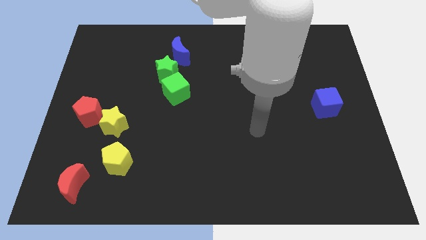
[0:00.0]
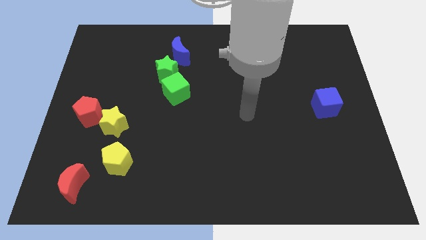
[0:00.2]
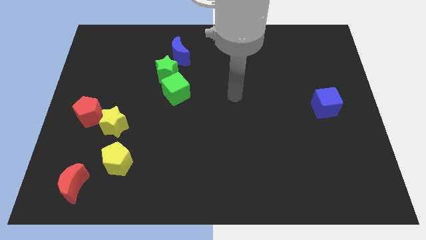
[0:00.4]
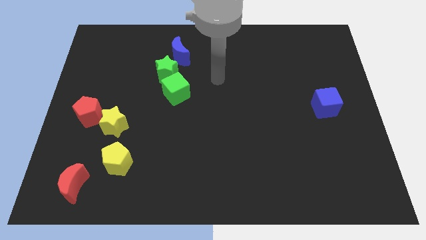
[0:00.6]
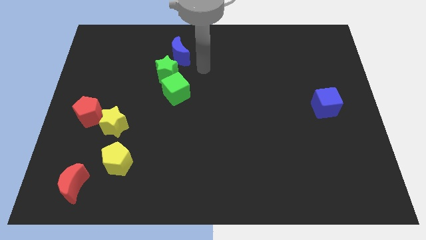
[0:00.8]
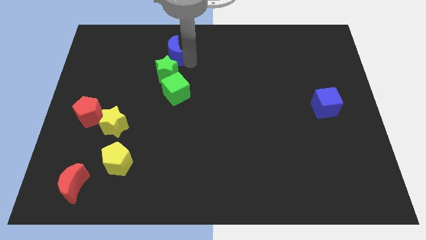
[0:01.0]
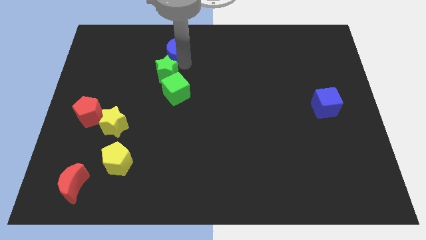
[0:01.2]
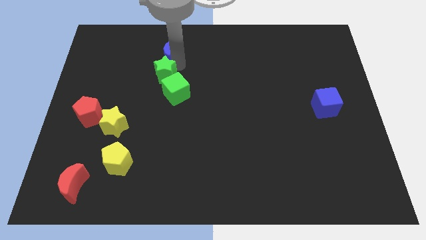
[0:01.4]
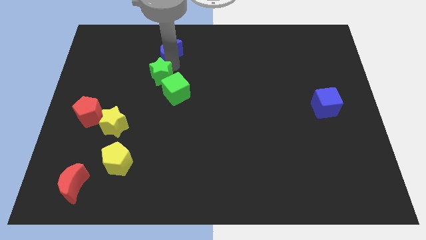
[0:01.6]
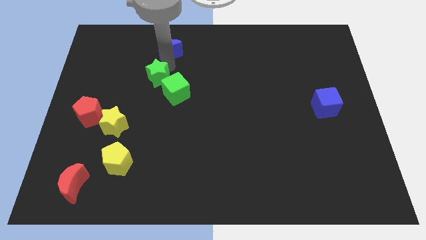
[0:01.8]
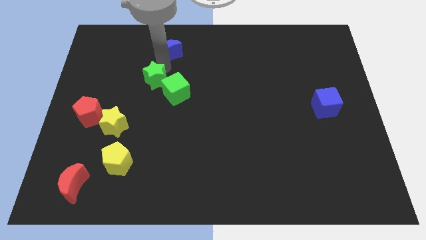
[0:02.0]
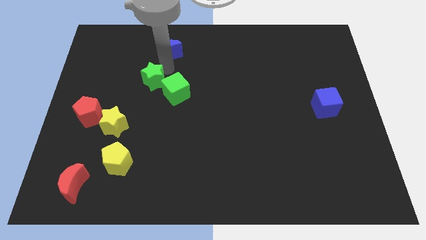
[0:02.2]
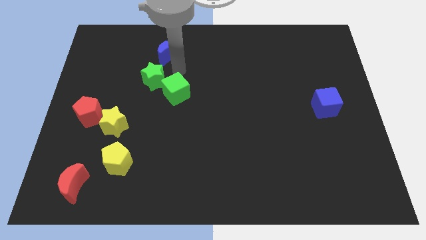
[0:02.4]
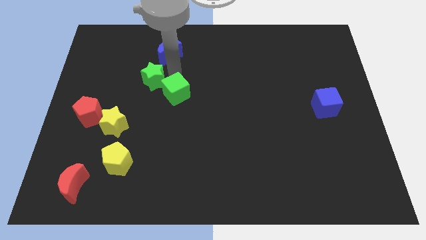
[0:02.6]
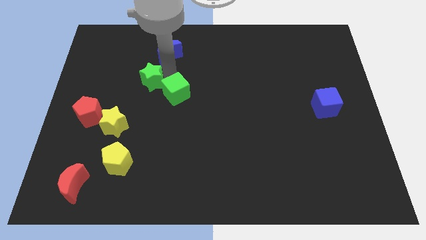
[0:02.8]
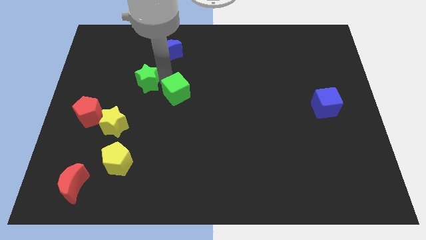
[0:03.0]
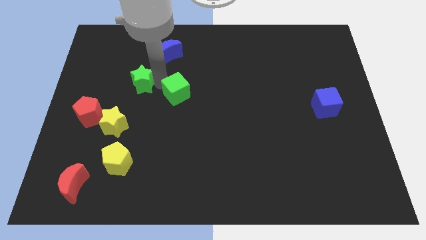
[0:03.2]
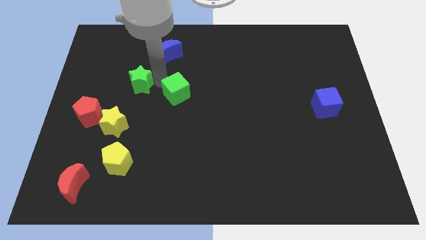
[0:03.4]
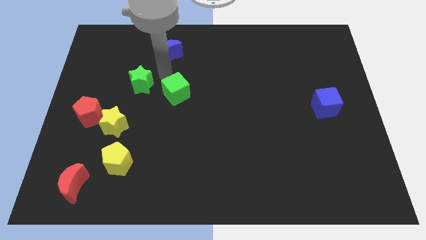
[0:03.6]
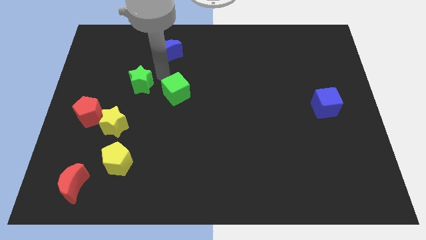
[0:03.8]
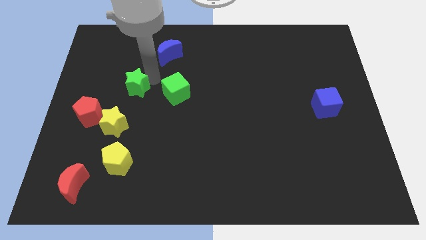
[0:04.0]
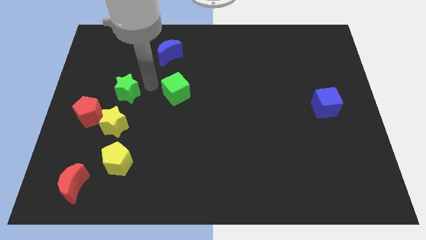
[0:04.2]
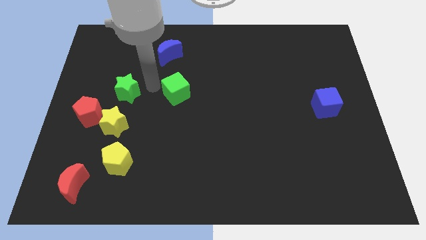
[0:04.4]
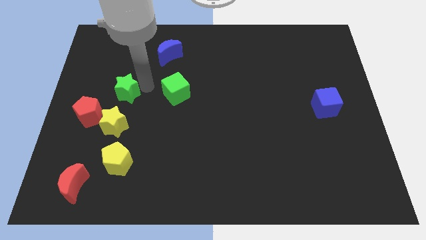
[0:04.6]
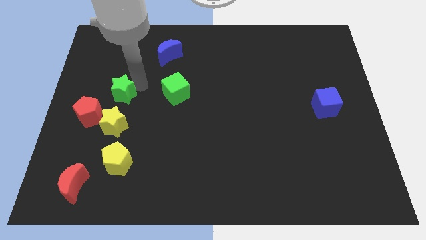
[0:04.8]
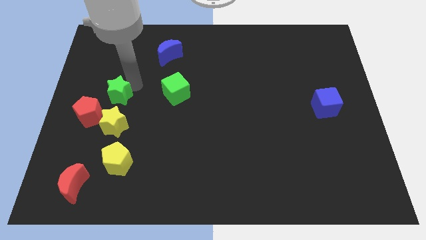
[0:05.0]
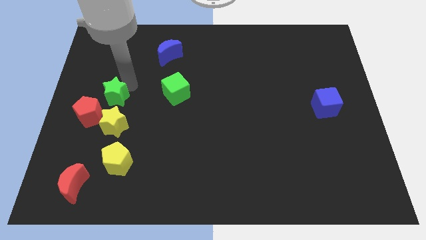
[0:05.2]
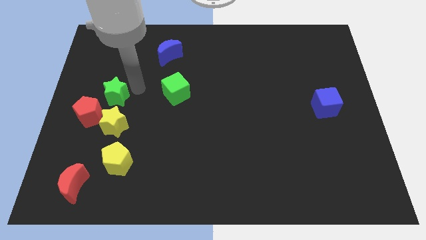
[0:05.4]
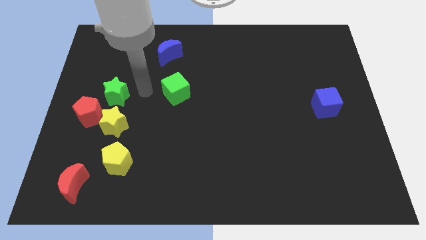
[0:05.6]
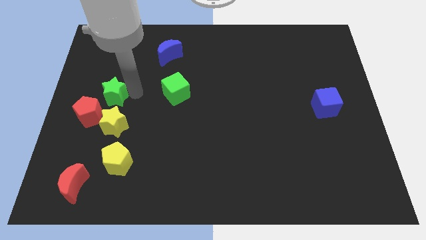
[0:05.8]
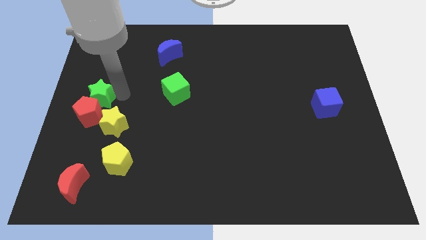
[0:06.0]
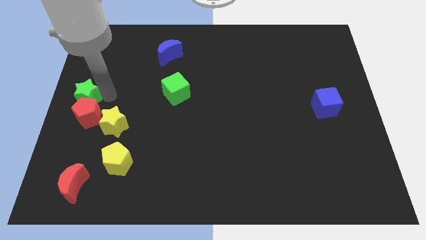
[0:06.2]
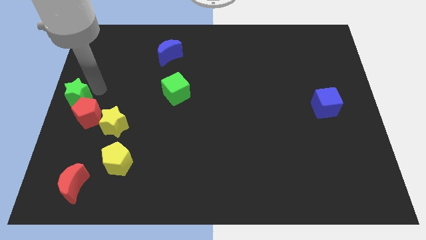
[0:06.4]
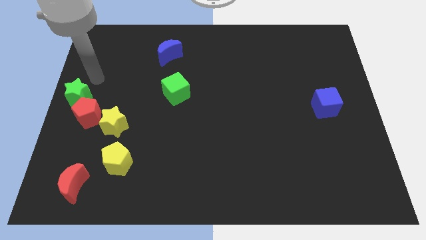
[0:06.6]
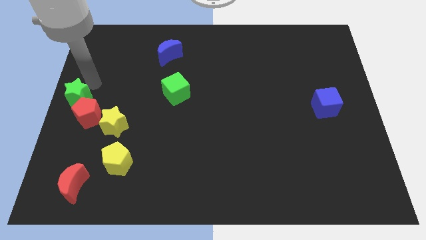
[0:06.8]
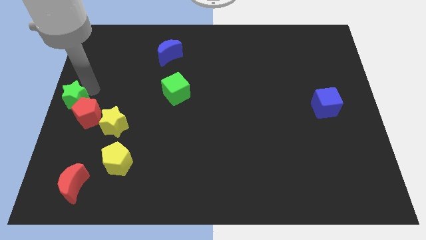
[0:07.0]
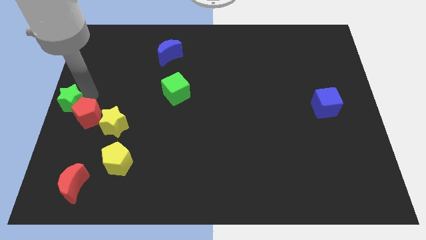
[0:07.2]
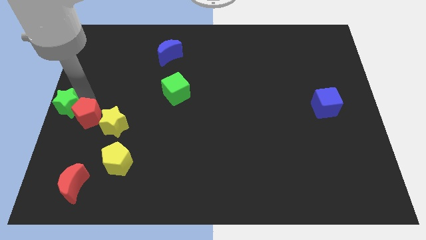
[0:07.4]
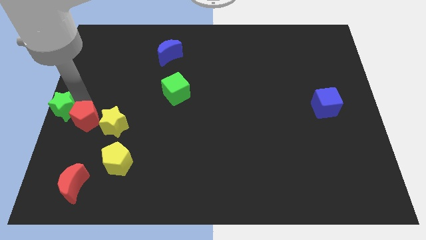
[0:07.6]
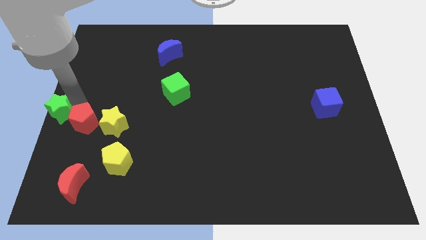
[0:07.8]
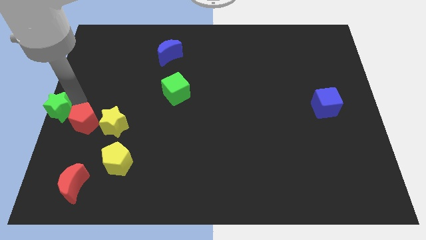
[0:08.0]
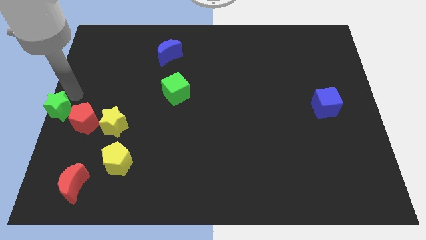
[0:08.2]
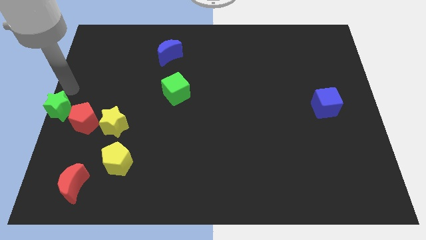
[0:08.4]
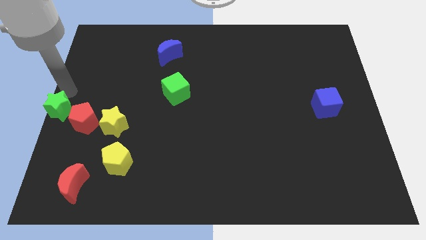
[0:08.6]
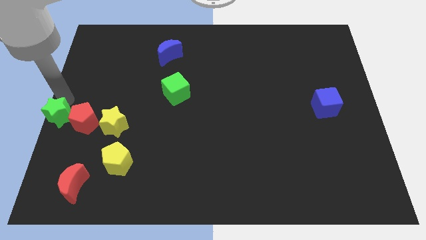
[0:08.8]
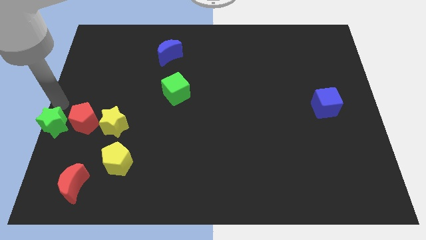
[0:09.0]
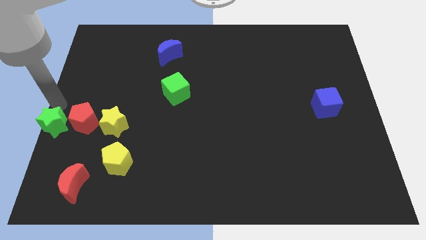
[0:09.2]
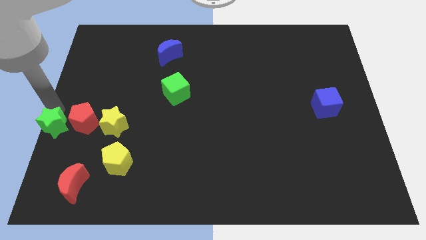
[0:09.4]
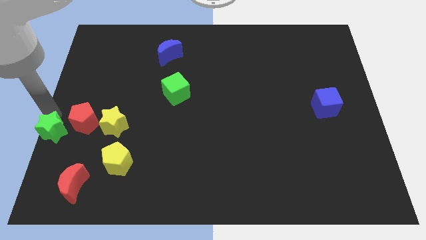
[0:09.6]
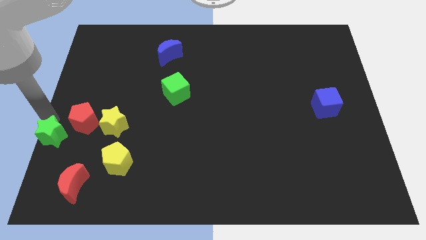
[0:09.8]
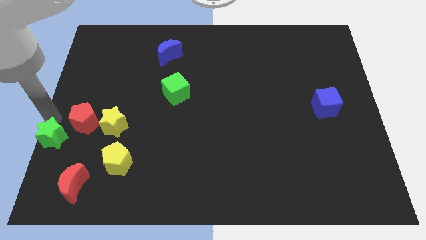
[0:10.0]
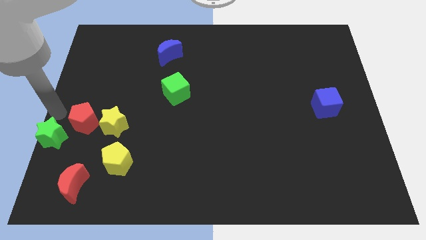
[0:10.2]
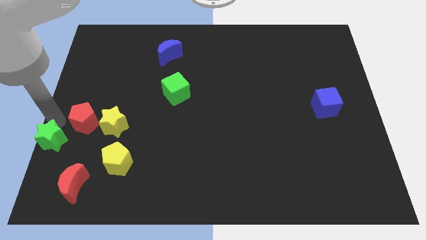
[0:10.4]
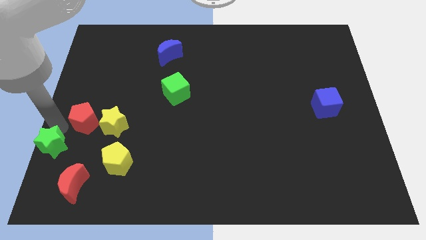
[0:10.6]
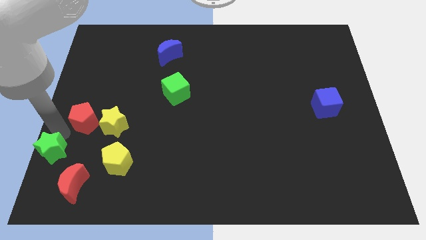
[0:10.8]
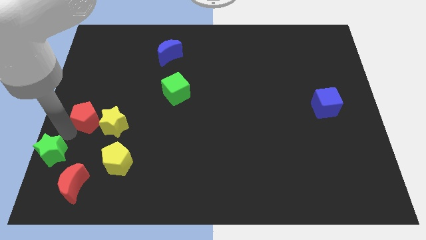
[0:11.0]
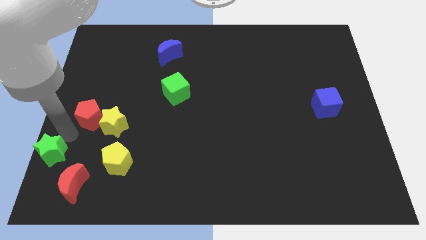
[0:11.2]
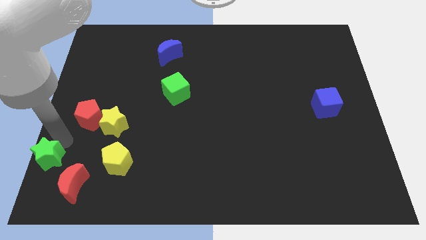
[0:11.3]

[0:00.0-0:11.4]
move the green star to the bottom left corner

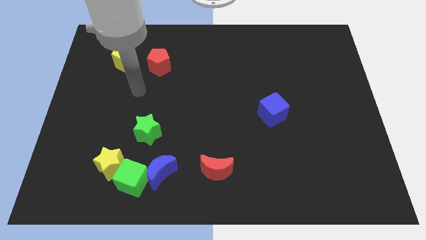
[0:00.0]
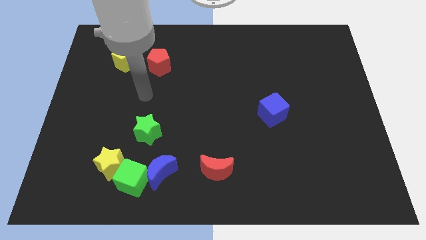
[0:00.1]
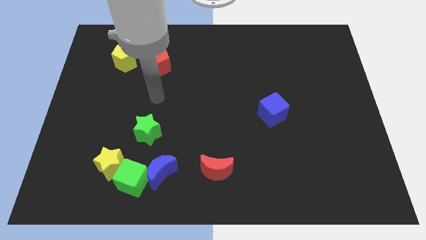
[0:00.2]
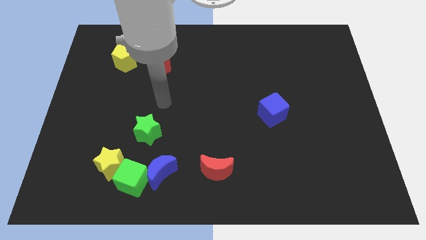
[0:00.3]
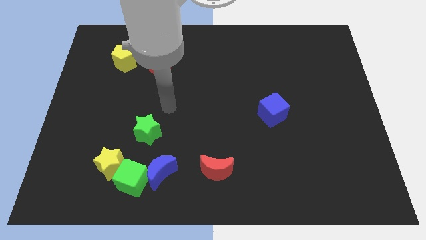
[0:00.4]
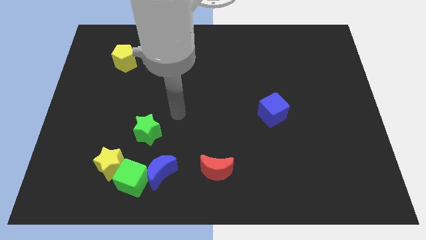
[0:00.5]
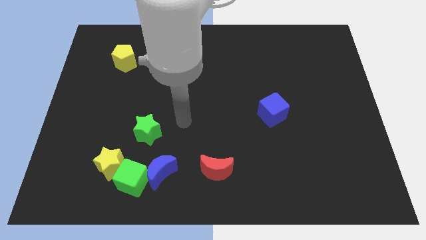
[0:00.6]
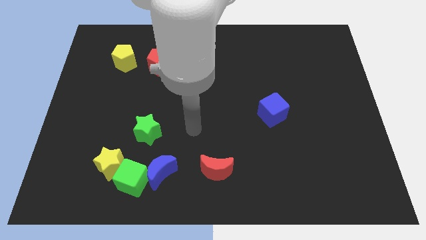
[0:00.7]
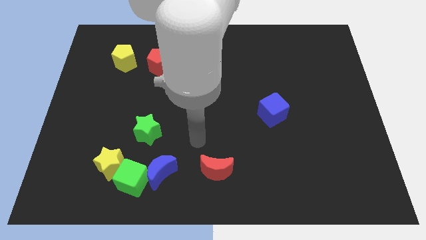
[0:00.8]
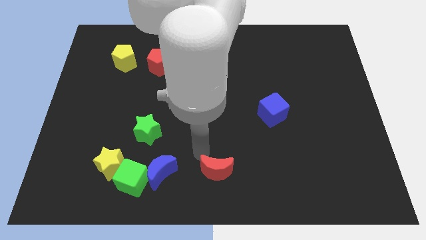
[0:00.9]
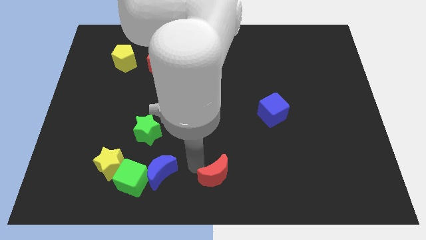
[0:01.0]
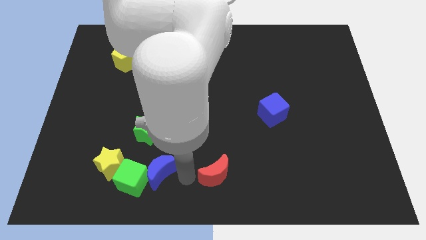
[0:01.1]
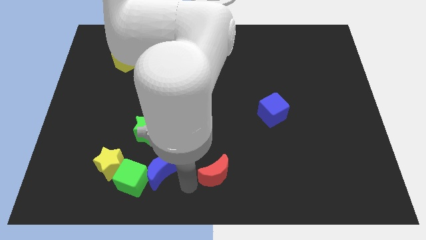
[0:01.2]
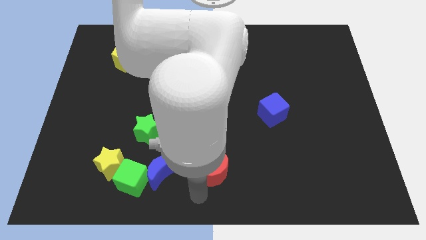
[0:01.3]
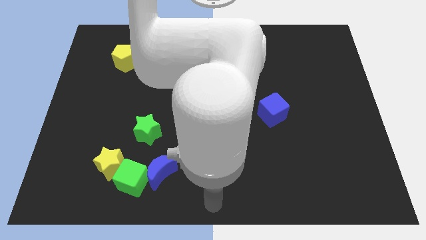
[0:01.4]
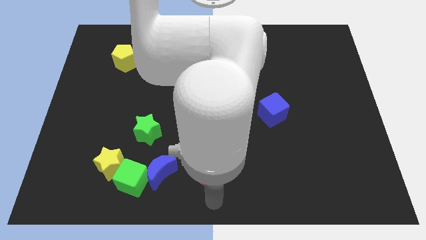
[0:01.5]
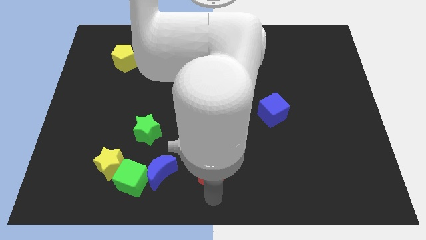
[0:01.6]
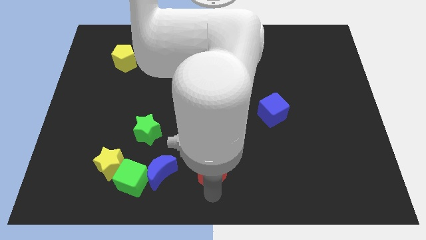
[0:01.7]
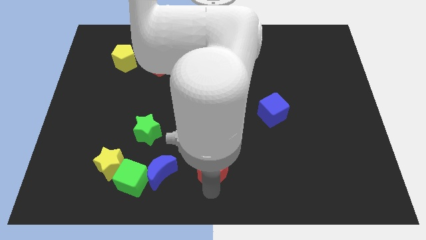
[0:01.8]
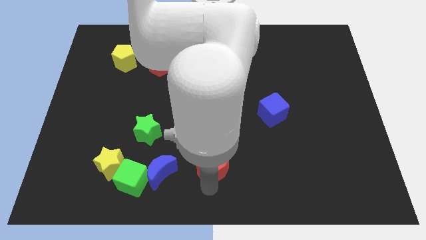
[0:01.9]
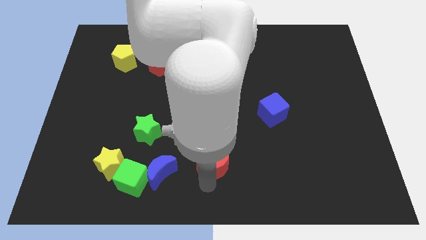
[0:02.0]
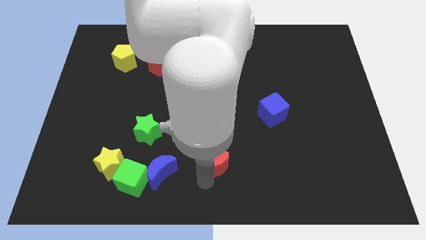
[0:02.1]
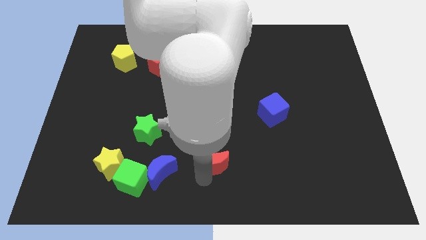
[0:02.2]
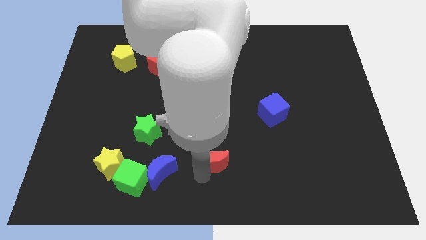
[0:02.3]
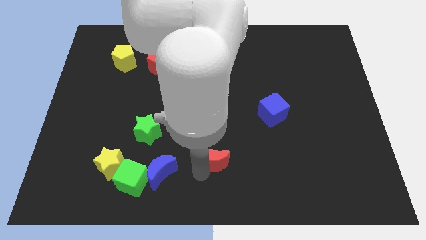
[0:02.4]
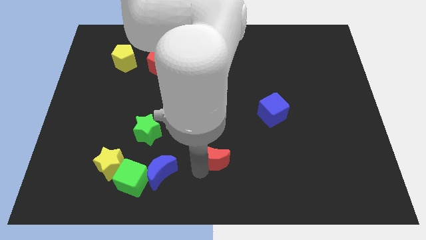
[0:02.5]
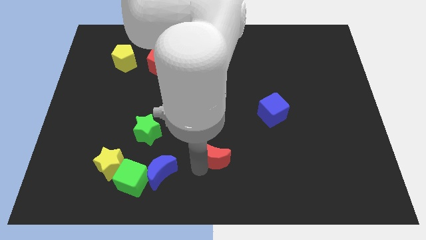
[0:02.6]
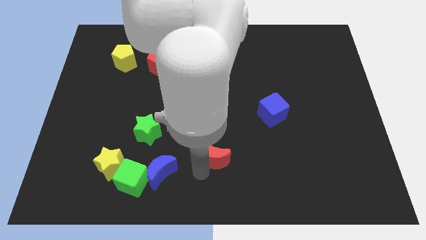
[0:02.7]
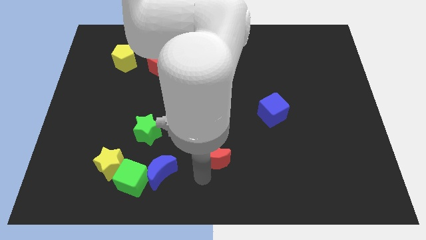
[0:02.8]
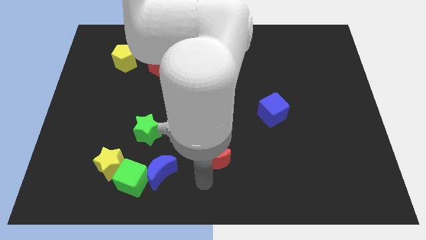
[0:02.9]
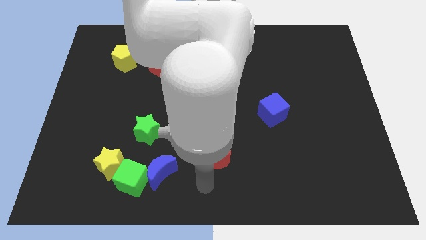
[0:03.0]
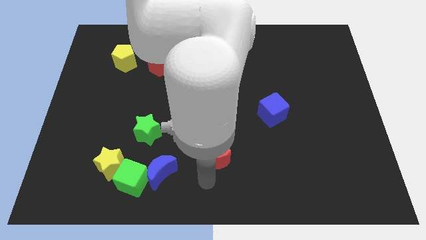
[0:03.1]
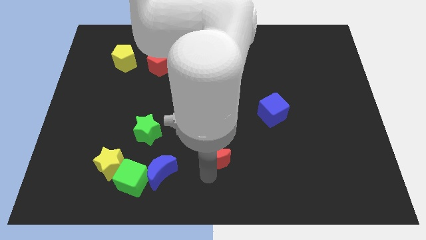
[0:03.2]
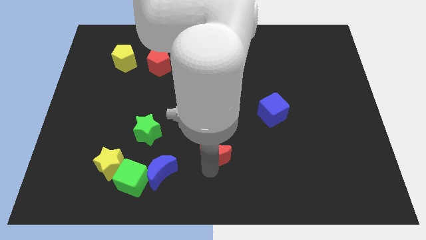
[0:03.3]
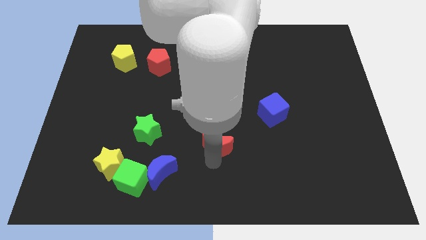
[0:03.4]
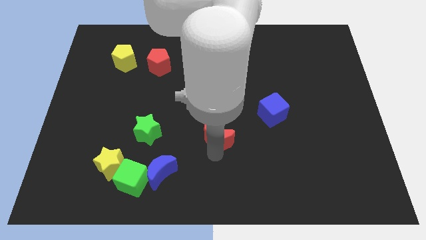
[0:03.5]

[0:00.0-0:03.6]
slide the red moon to the middle of the board
